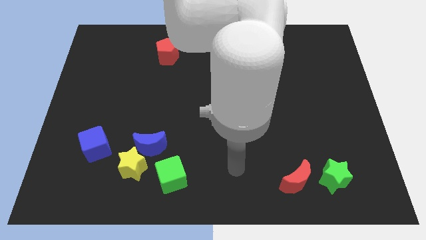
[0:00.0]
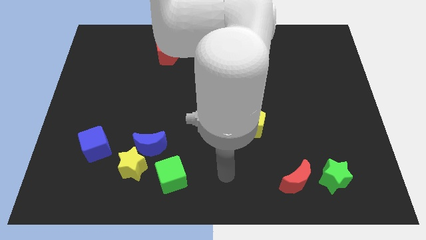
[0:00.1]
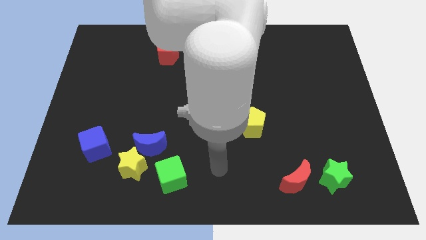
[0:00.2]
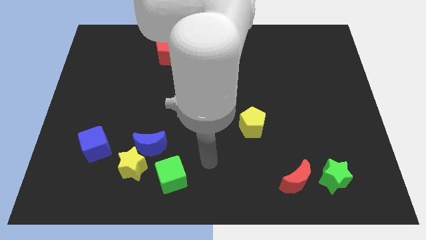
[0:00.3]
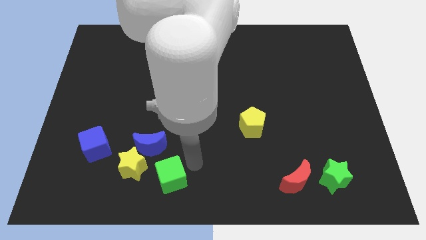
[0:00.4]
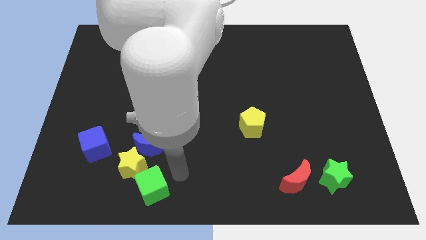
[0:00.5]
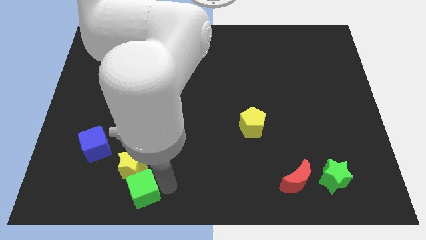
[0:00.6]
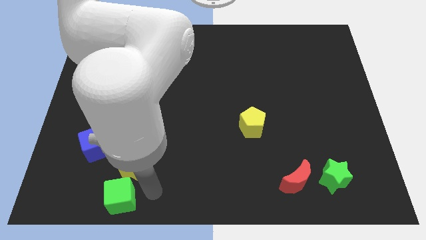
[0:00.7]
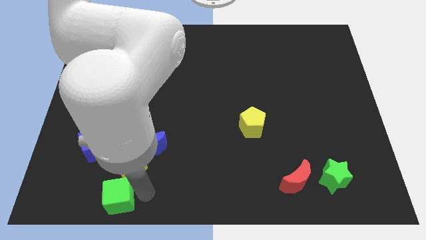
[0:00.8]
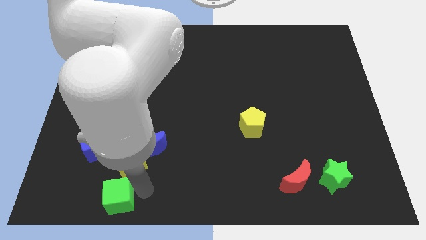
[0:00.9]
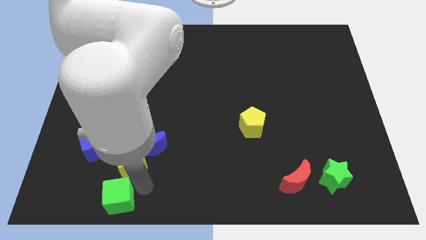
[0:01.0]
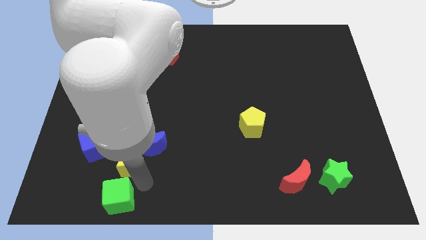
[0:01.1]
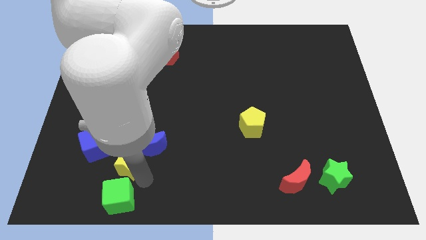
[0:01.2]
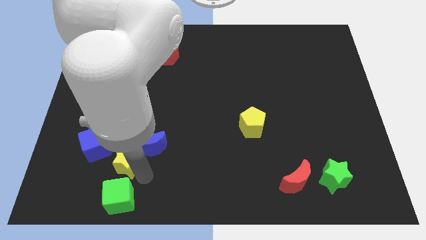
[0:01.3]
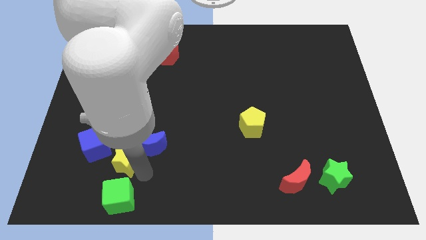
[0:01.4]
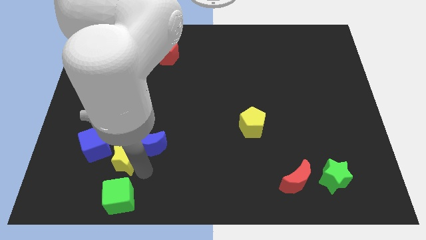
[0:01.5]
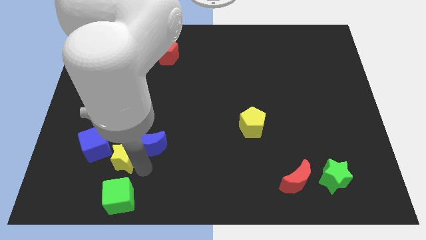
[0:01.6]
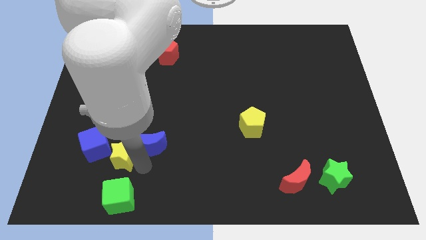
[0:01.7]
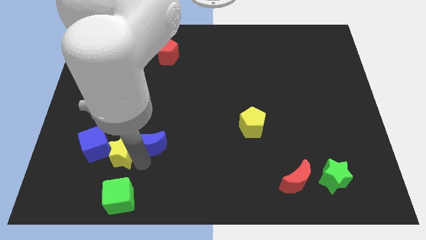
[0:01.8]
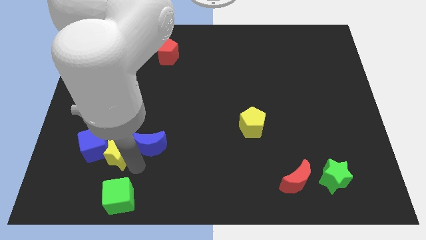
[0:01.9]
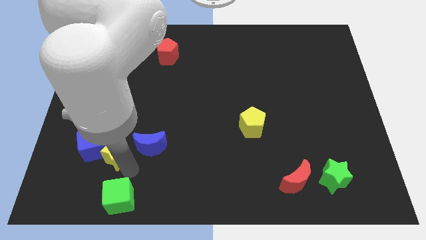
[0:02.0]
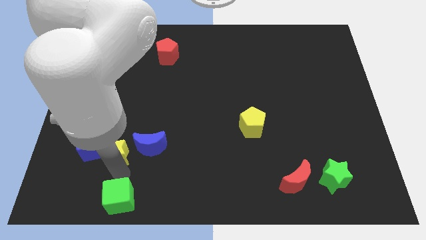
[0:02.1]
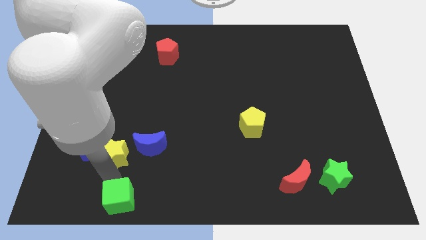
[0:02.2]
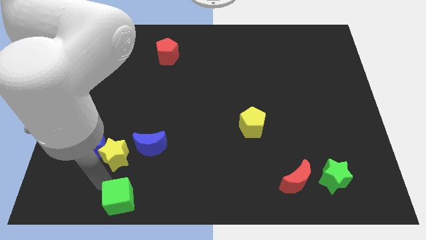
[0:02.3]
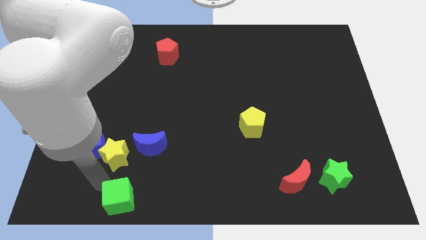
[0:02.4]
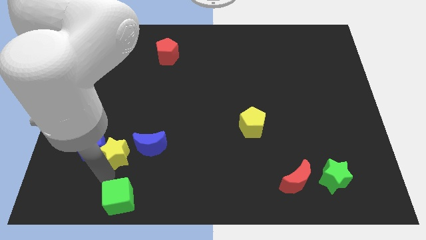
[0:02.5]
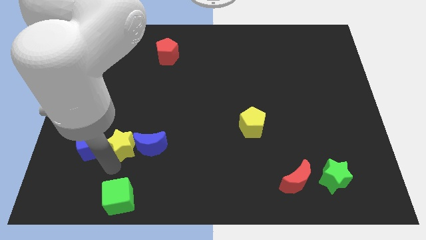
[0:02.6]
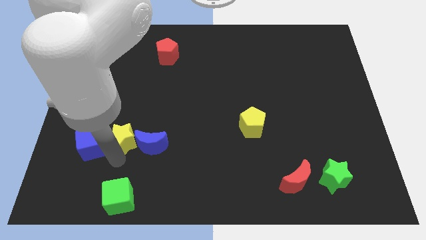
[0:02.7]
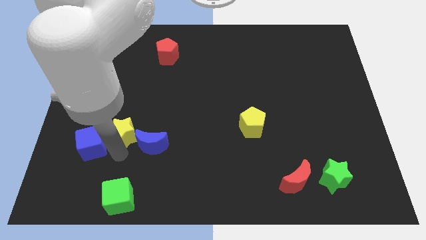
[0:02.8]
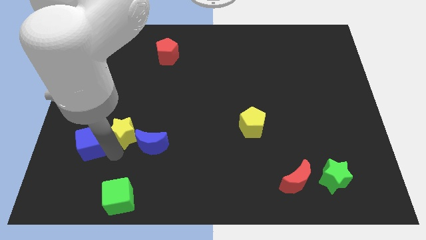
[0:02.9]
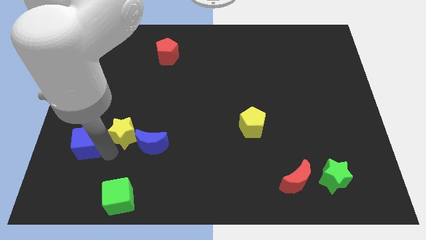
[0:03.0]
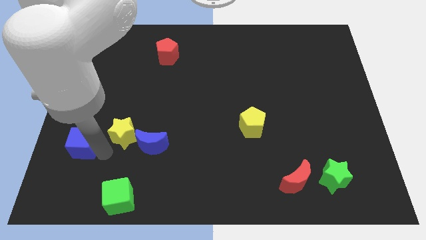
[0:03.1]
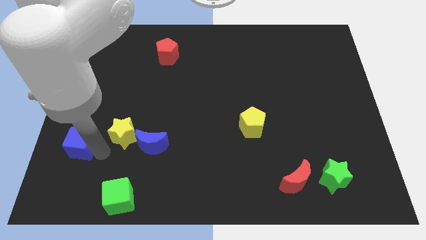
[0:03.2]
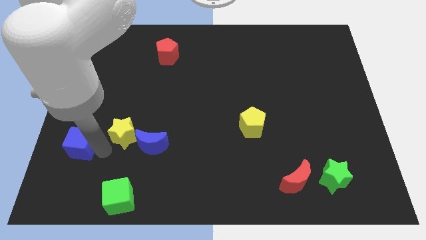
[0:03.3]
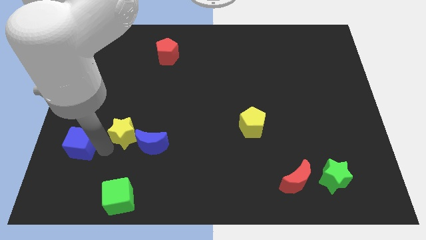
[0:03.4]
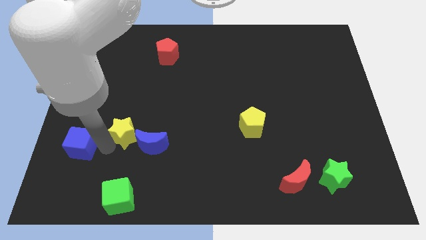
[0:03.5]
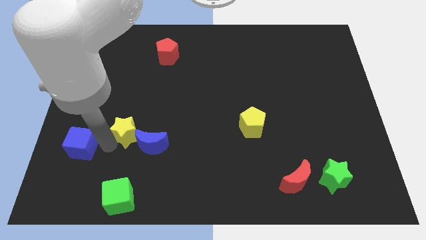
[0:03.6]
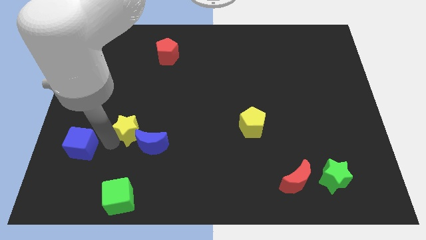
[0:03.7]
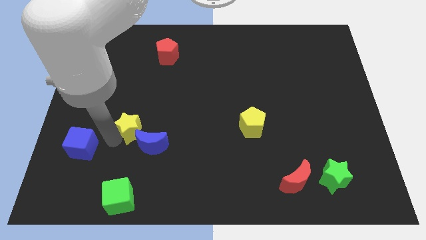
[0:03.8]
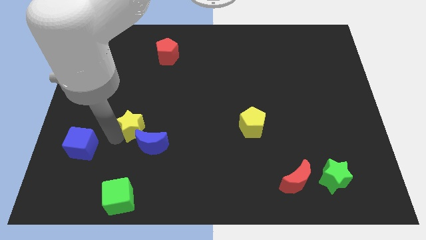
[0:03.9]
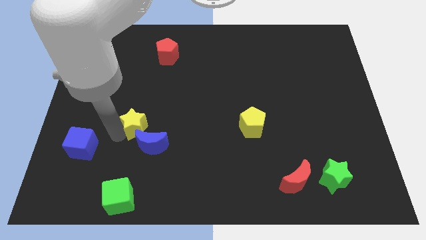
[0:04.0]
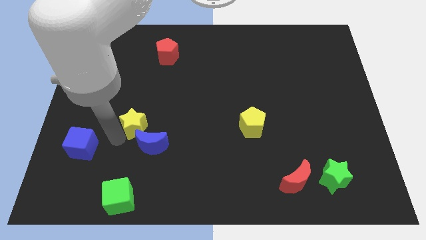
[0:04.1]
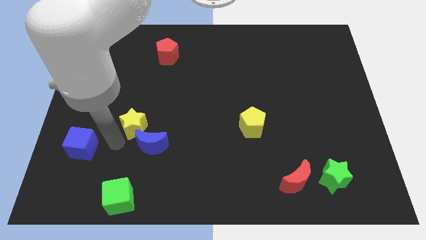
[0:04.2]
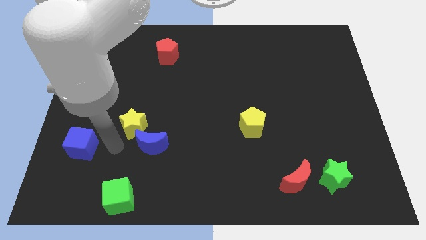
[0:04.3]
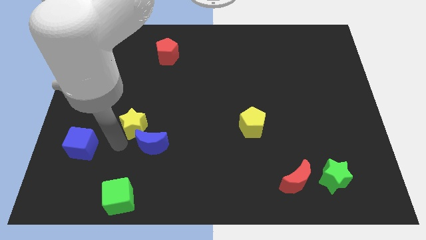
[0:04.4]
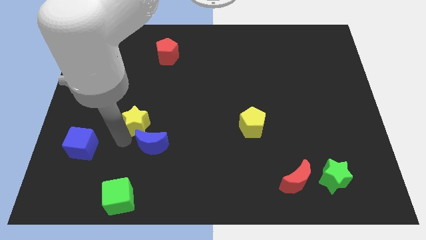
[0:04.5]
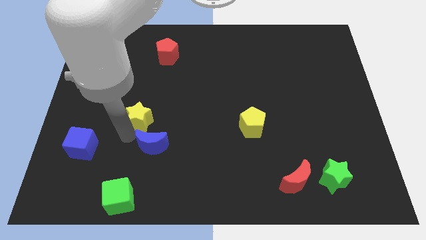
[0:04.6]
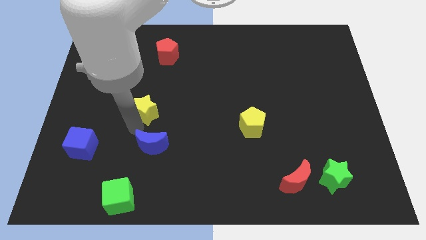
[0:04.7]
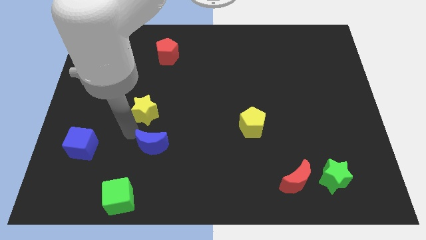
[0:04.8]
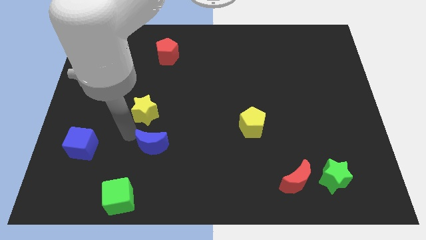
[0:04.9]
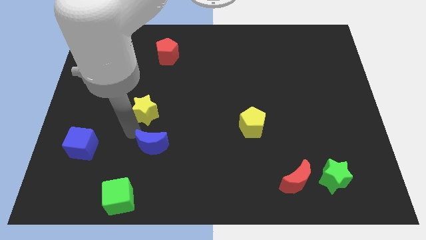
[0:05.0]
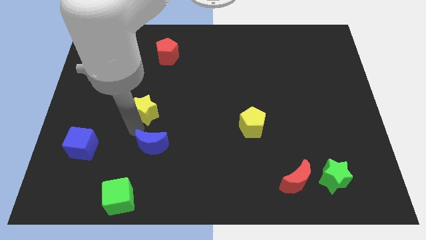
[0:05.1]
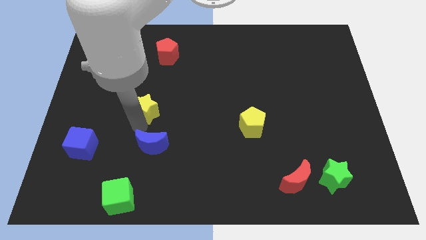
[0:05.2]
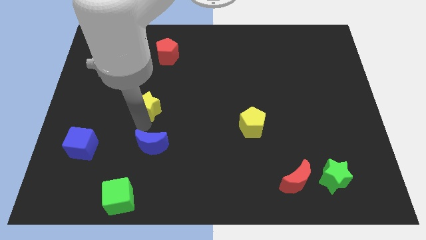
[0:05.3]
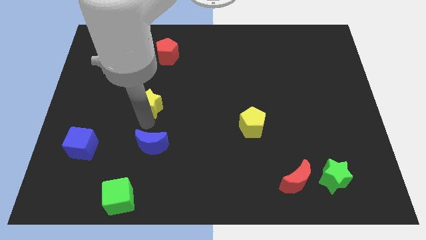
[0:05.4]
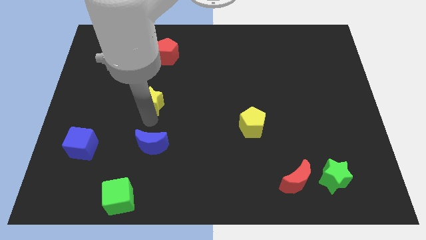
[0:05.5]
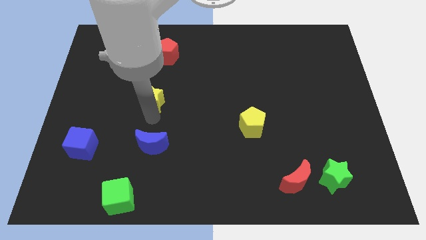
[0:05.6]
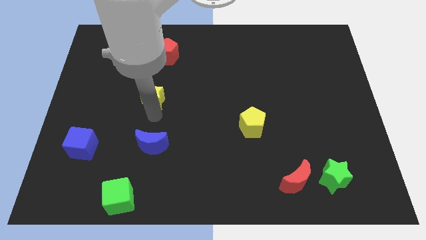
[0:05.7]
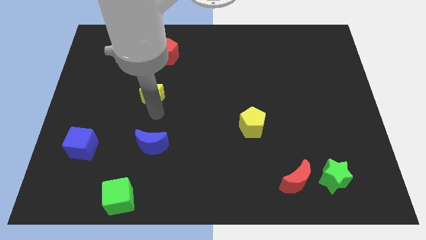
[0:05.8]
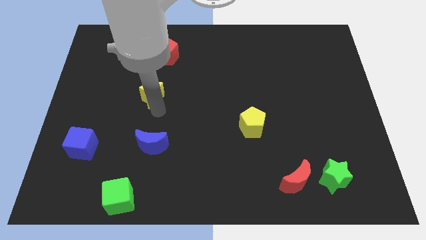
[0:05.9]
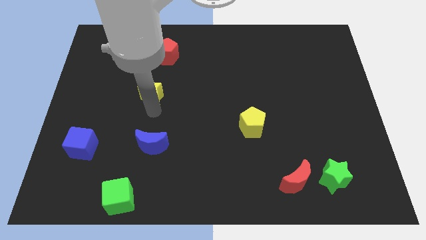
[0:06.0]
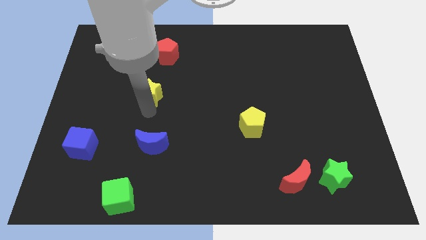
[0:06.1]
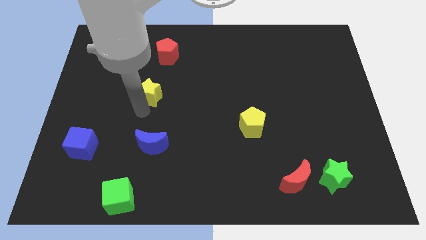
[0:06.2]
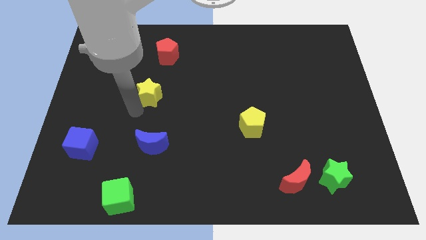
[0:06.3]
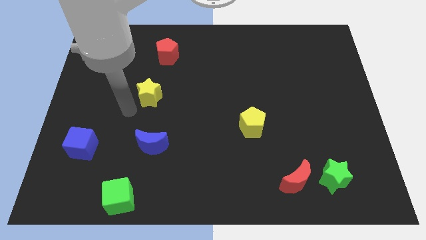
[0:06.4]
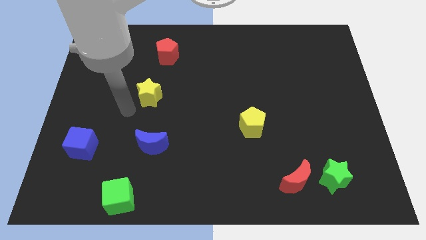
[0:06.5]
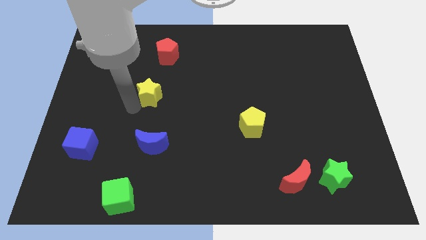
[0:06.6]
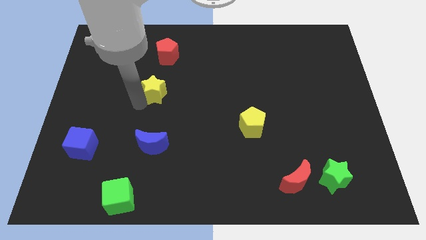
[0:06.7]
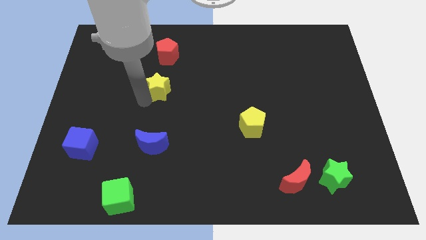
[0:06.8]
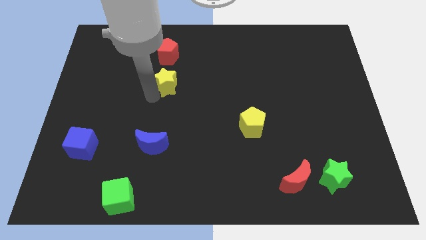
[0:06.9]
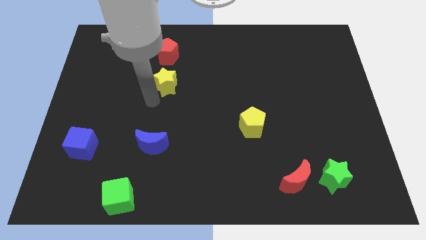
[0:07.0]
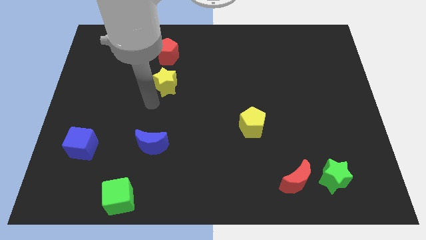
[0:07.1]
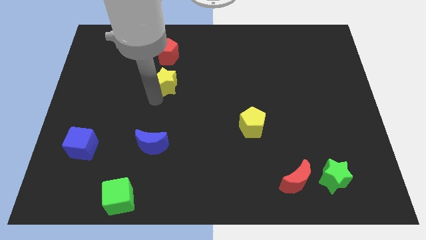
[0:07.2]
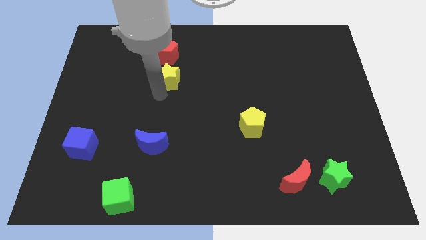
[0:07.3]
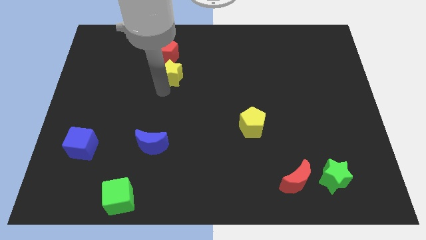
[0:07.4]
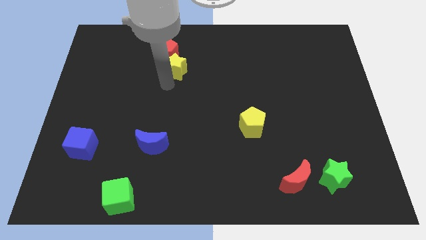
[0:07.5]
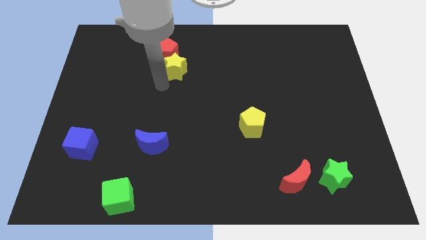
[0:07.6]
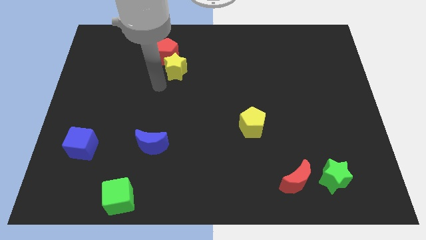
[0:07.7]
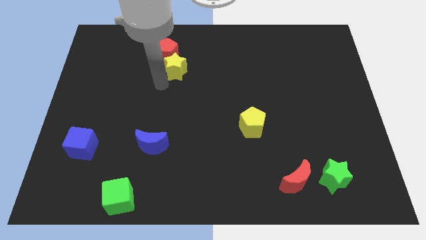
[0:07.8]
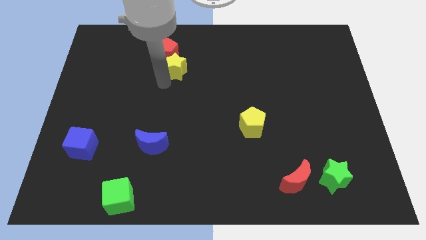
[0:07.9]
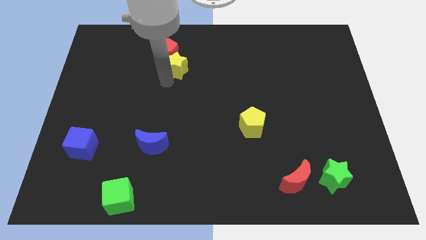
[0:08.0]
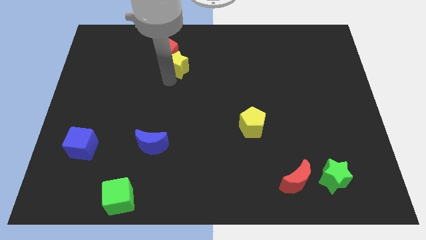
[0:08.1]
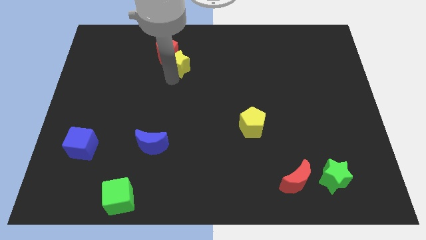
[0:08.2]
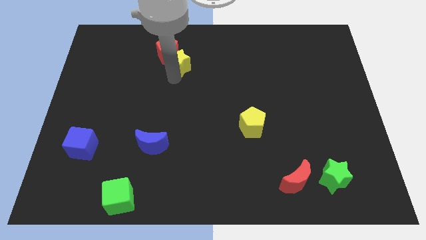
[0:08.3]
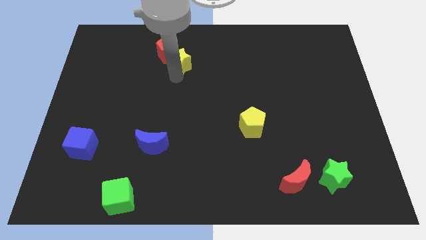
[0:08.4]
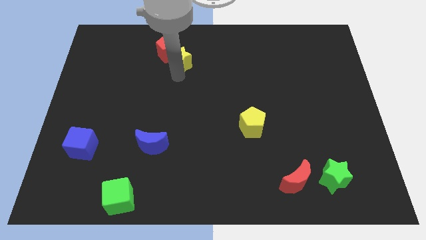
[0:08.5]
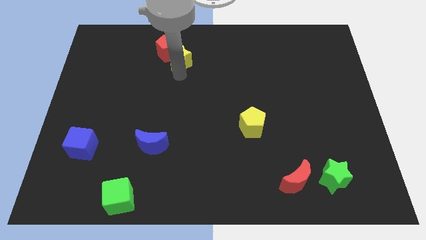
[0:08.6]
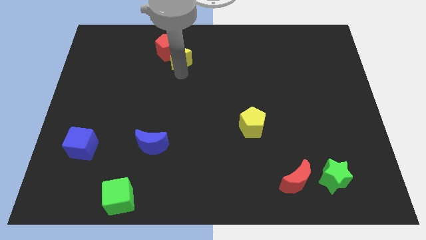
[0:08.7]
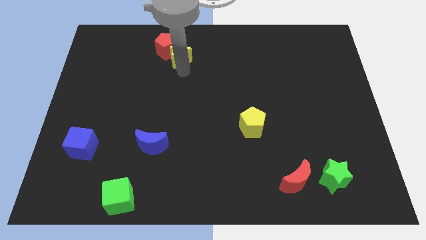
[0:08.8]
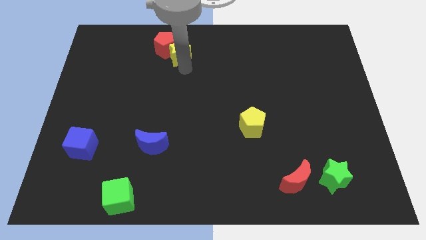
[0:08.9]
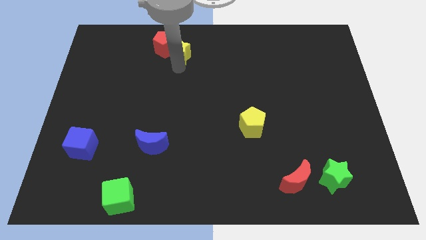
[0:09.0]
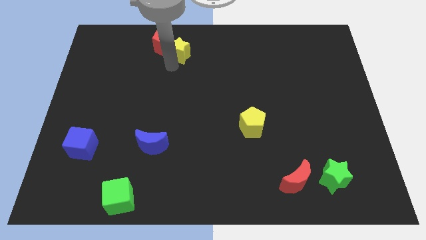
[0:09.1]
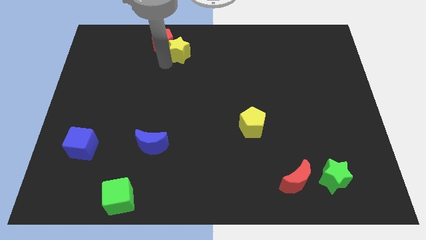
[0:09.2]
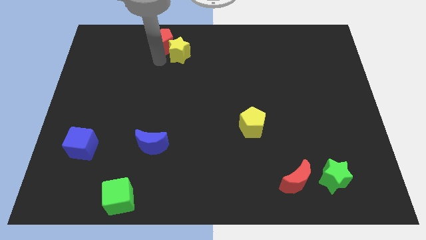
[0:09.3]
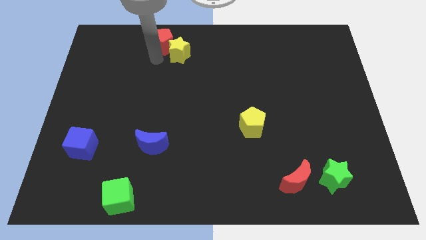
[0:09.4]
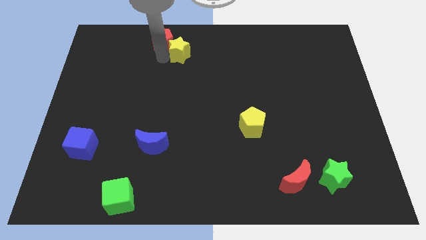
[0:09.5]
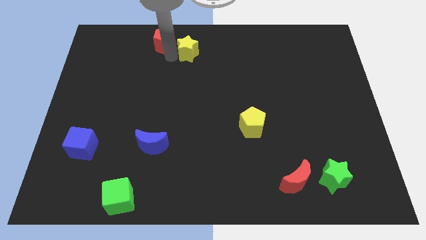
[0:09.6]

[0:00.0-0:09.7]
slide the yellow star to the top side
